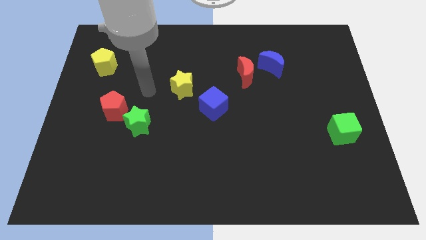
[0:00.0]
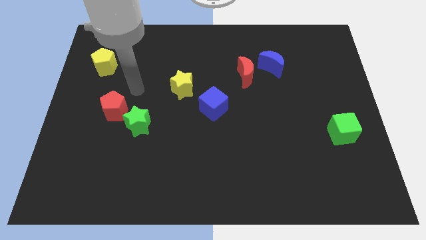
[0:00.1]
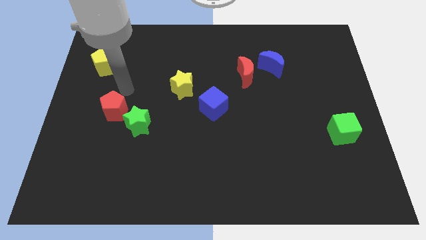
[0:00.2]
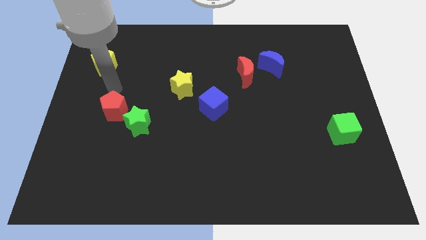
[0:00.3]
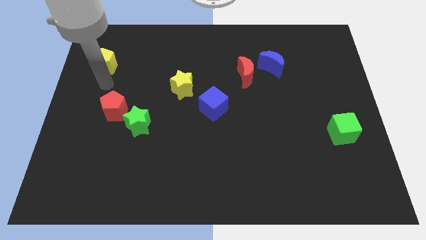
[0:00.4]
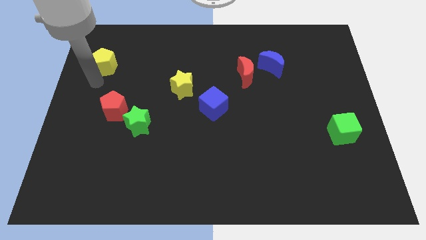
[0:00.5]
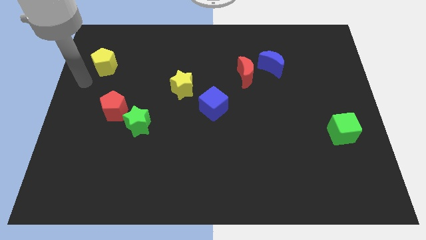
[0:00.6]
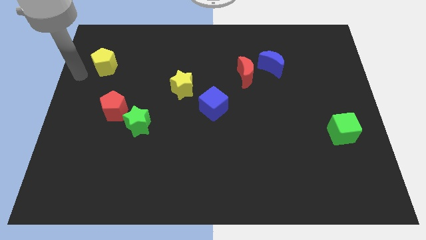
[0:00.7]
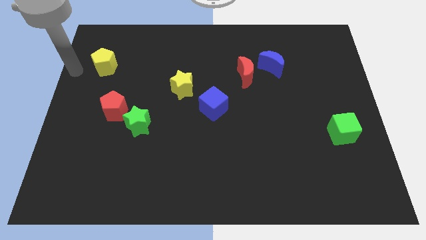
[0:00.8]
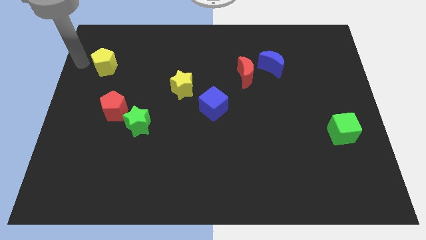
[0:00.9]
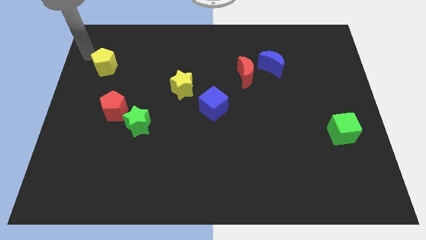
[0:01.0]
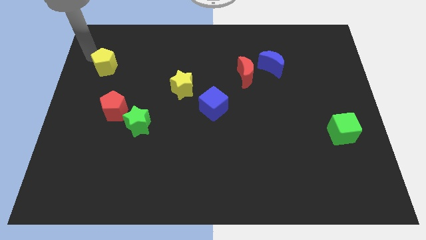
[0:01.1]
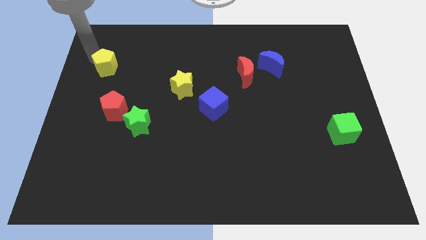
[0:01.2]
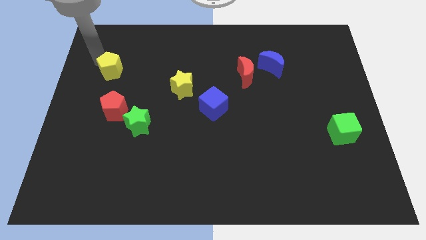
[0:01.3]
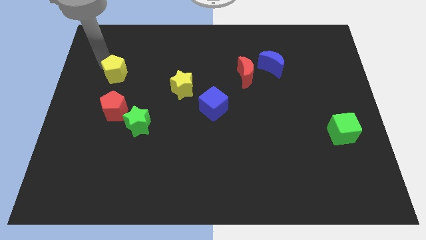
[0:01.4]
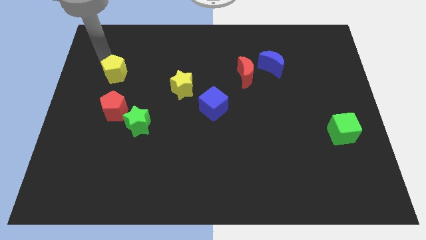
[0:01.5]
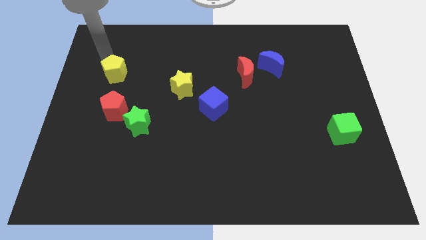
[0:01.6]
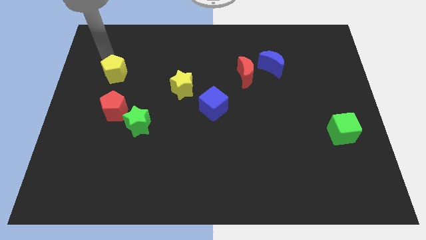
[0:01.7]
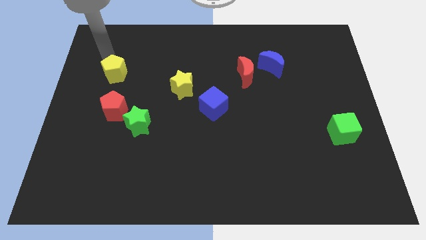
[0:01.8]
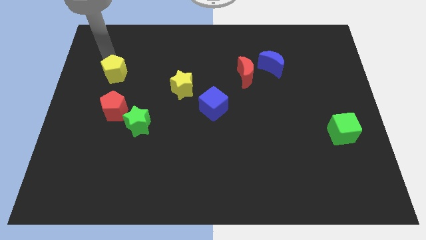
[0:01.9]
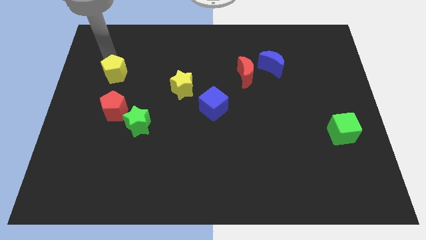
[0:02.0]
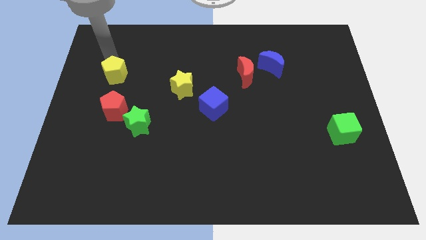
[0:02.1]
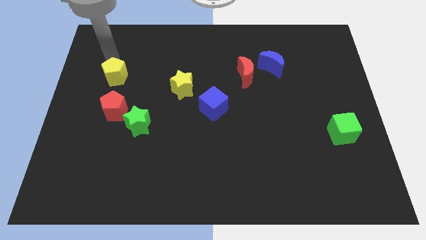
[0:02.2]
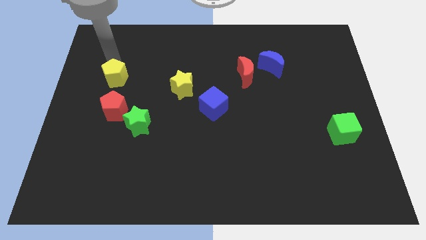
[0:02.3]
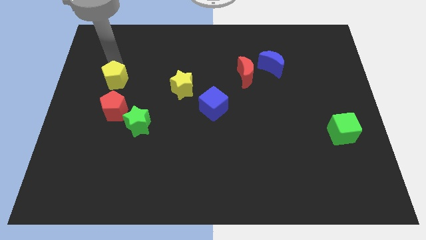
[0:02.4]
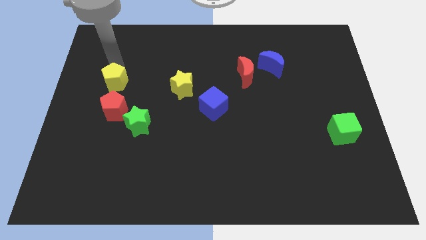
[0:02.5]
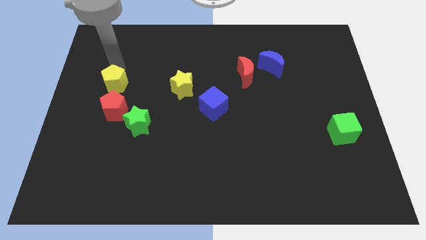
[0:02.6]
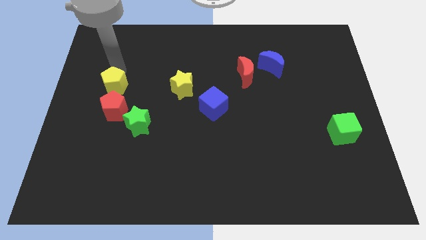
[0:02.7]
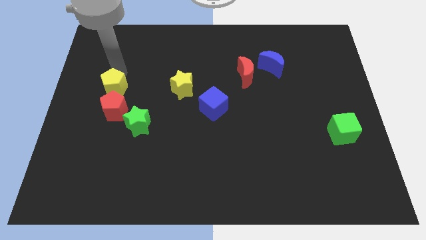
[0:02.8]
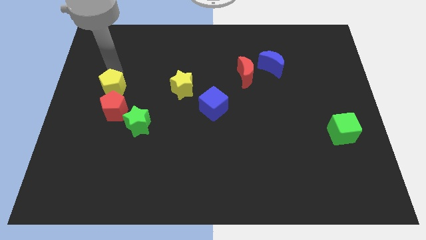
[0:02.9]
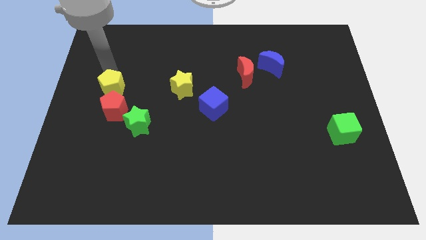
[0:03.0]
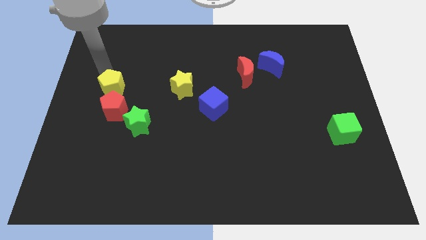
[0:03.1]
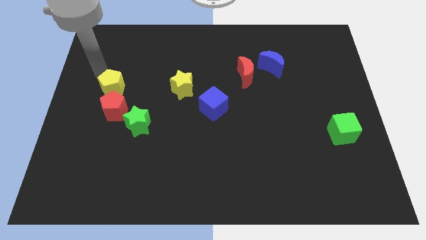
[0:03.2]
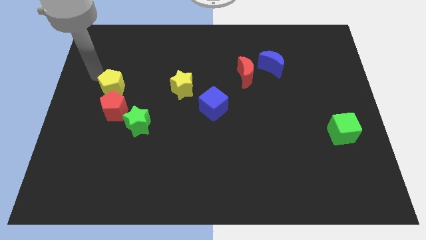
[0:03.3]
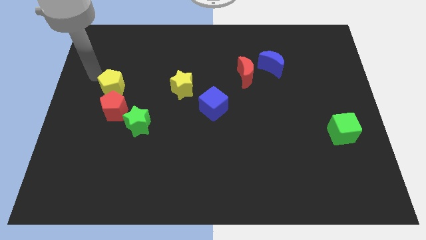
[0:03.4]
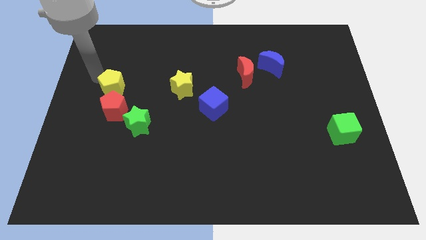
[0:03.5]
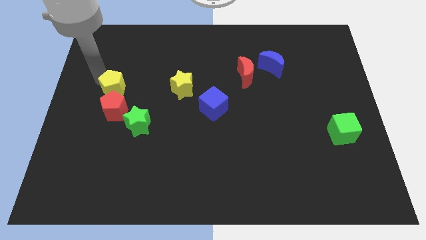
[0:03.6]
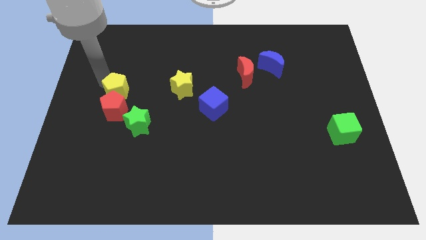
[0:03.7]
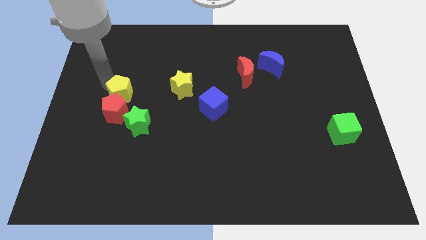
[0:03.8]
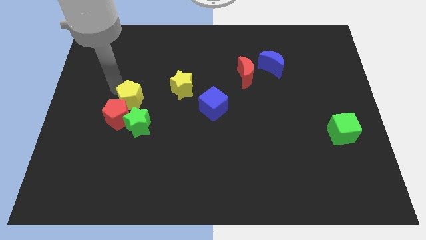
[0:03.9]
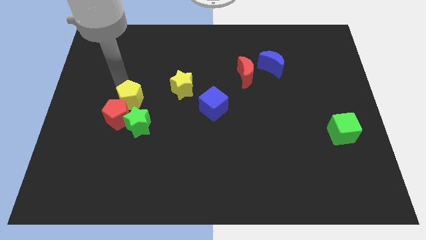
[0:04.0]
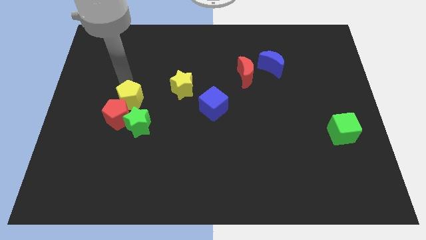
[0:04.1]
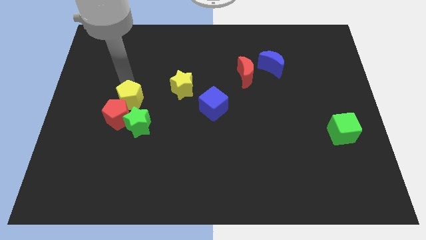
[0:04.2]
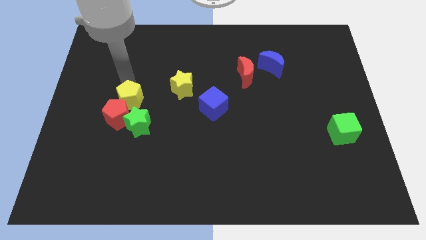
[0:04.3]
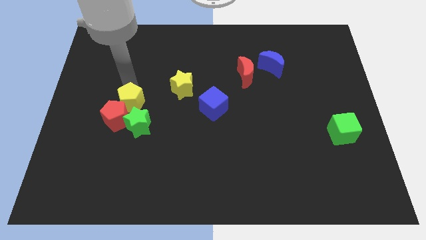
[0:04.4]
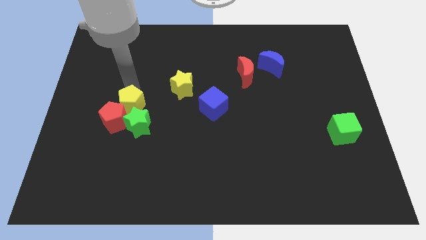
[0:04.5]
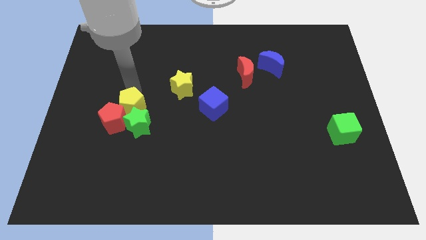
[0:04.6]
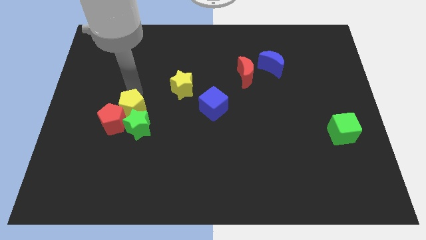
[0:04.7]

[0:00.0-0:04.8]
put the yellow pentagon towards the green star

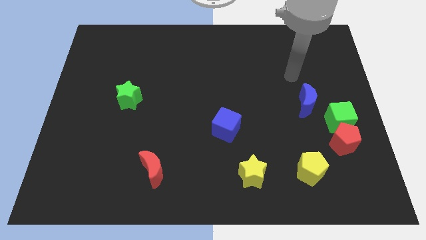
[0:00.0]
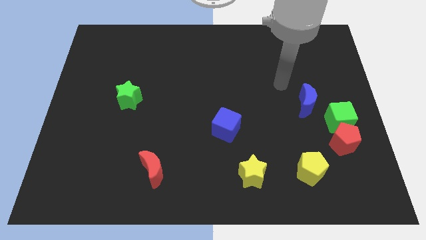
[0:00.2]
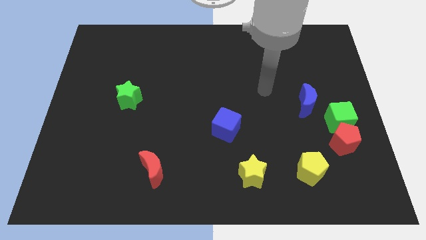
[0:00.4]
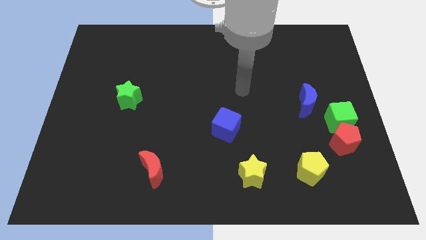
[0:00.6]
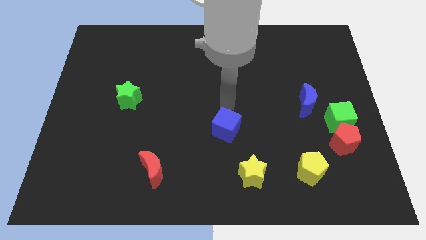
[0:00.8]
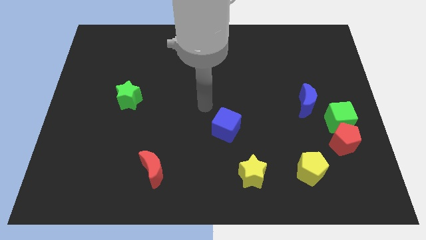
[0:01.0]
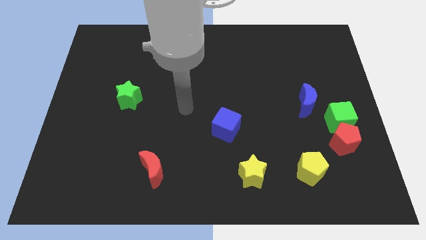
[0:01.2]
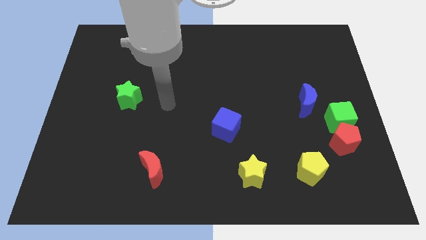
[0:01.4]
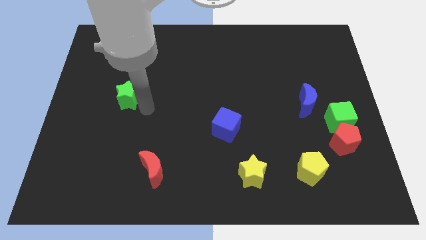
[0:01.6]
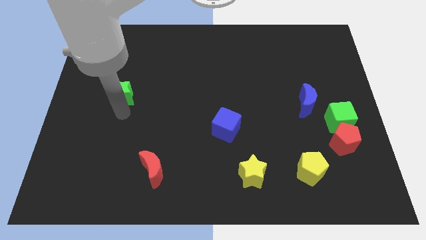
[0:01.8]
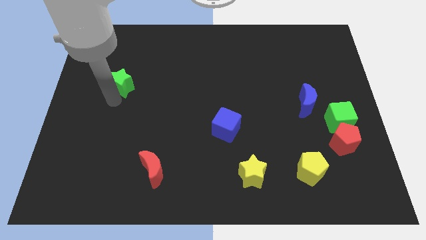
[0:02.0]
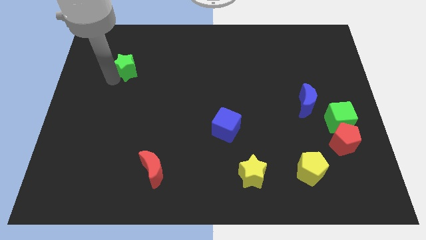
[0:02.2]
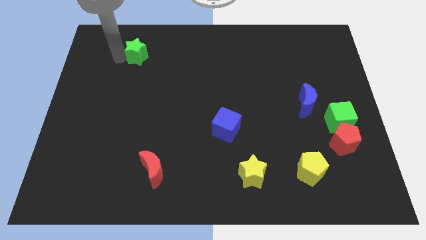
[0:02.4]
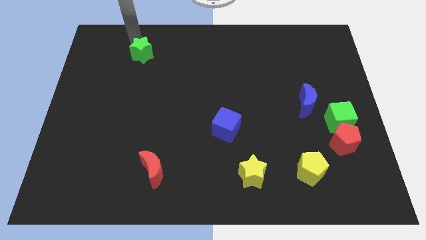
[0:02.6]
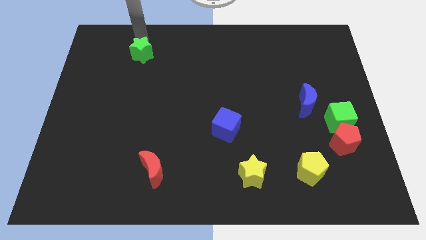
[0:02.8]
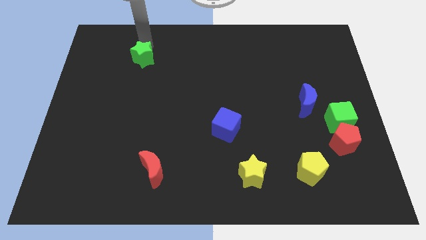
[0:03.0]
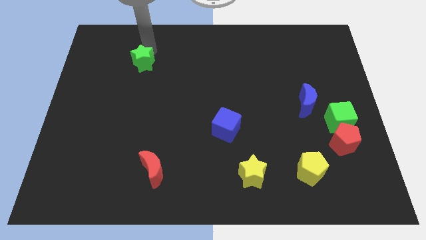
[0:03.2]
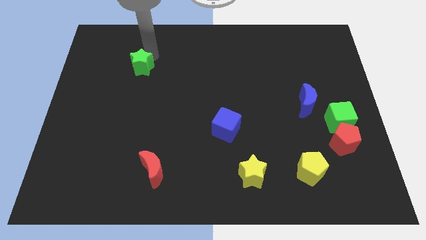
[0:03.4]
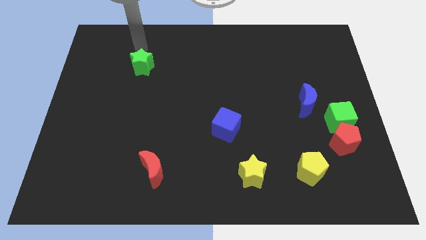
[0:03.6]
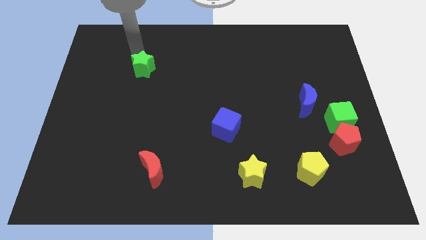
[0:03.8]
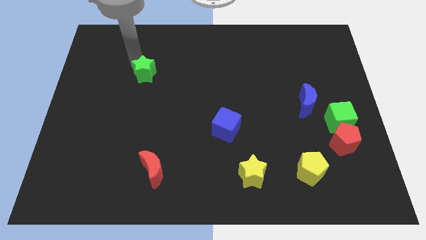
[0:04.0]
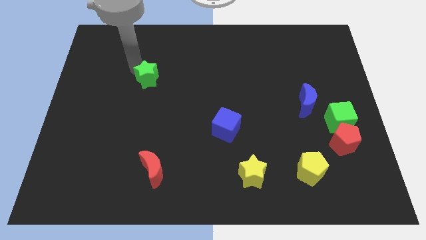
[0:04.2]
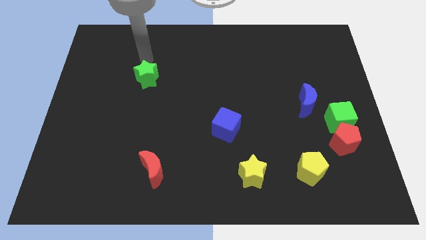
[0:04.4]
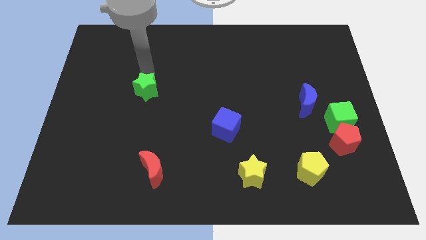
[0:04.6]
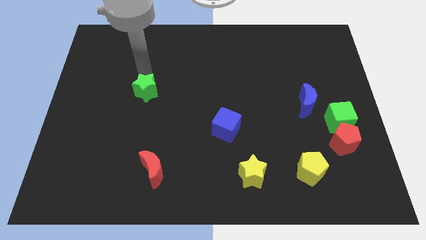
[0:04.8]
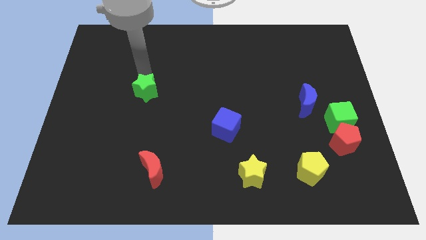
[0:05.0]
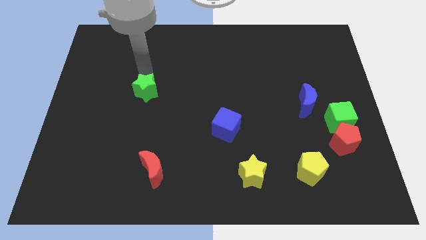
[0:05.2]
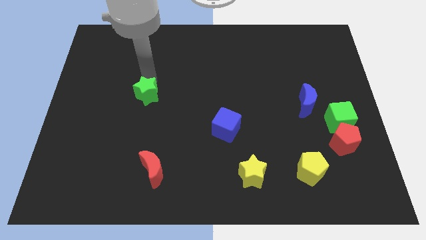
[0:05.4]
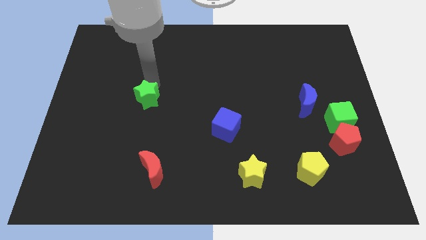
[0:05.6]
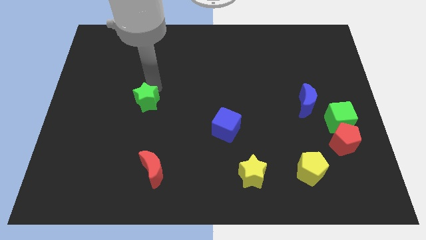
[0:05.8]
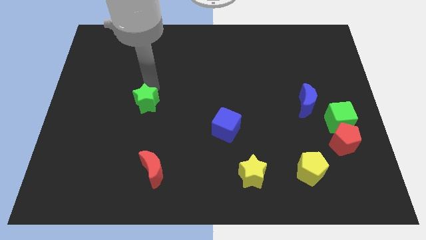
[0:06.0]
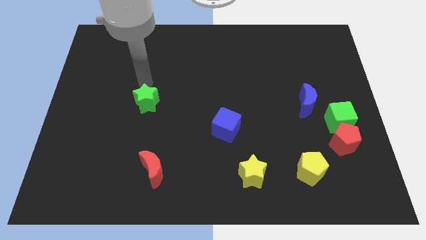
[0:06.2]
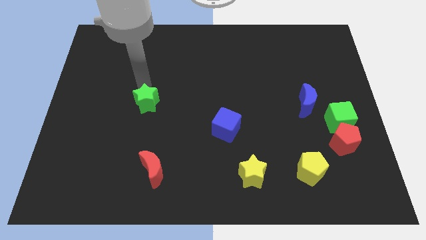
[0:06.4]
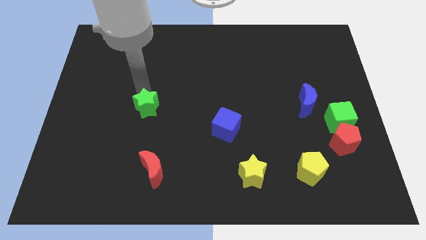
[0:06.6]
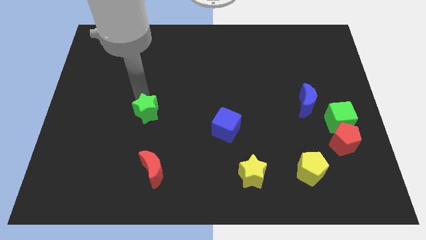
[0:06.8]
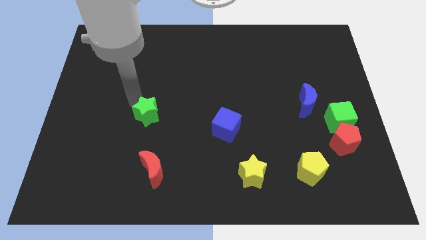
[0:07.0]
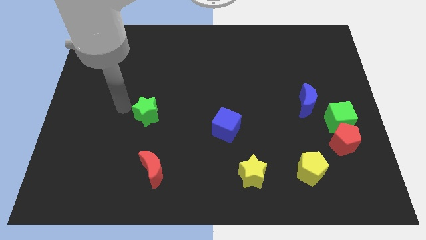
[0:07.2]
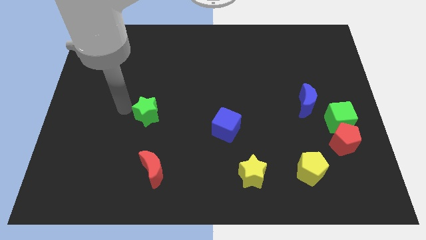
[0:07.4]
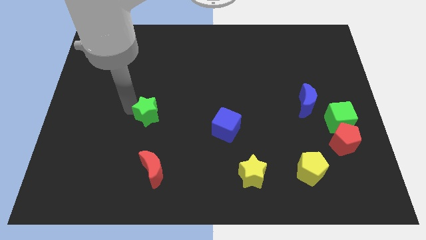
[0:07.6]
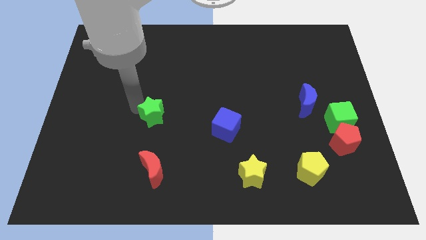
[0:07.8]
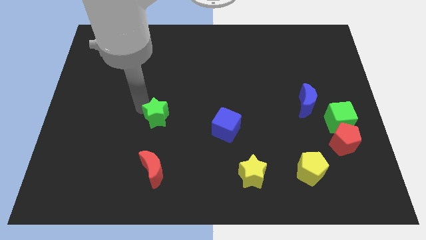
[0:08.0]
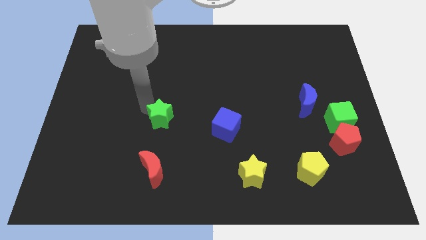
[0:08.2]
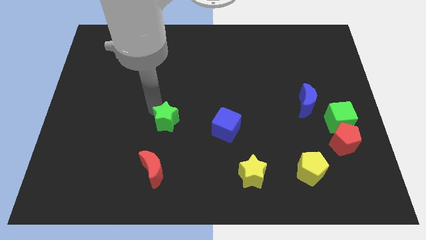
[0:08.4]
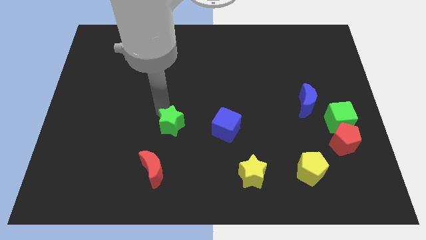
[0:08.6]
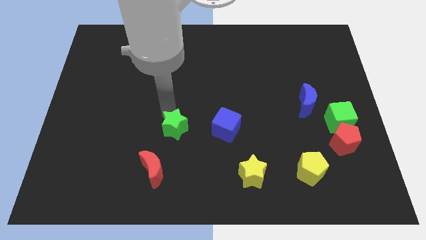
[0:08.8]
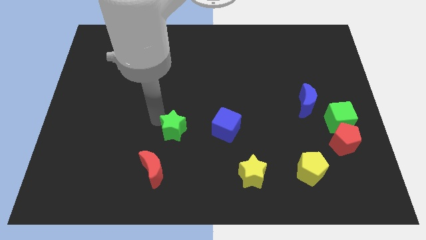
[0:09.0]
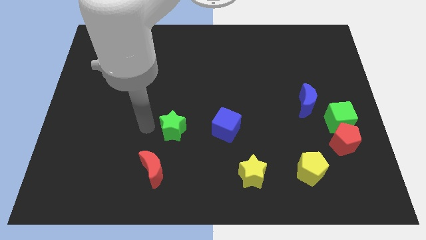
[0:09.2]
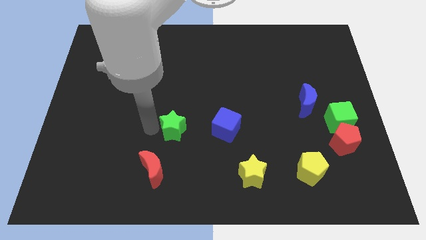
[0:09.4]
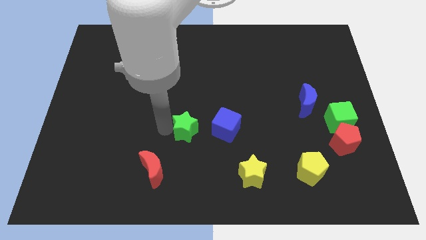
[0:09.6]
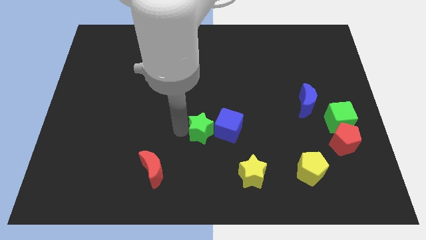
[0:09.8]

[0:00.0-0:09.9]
slide the green star towards the blue cube
